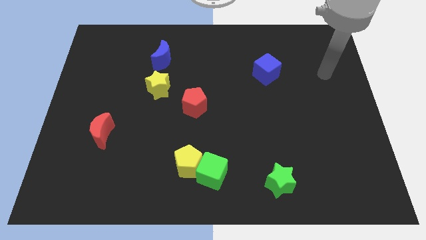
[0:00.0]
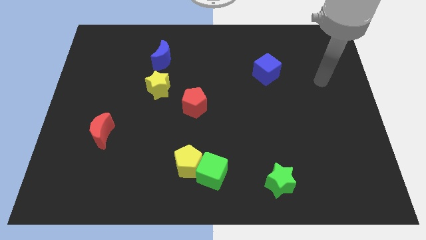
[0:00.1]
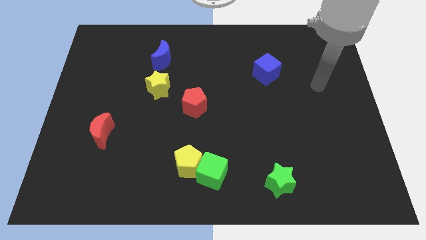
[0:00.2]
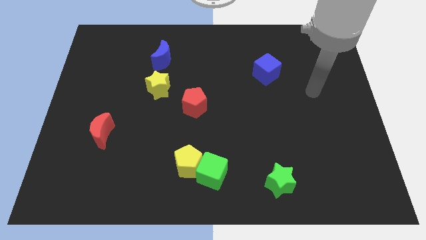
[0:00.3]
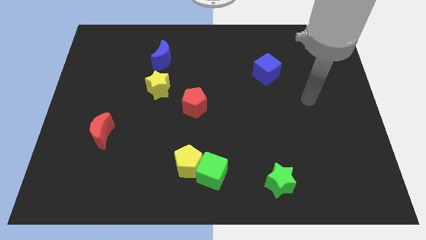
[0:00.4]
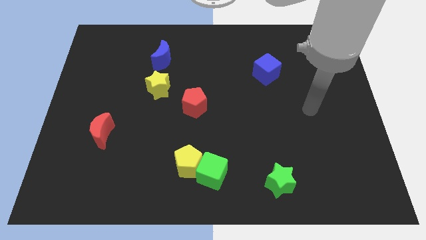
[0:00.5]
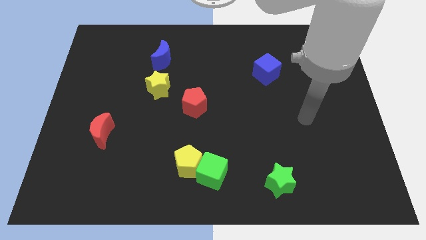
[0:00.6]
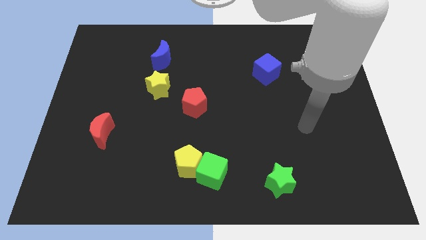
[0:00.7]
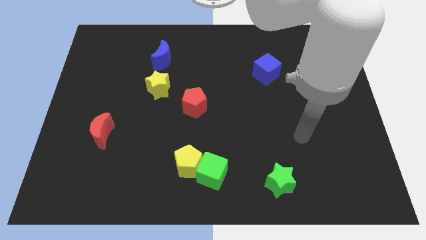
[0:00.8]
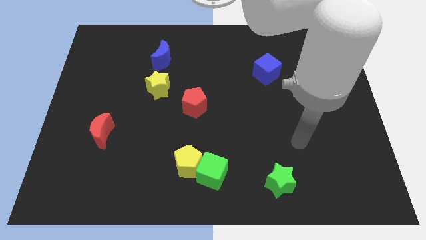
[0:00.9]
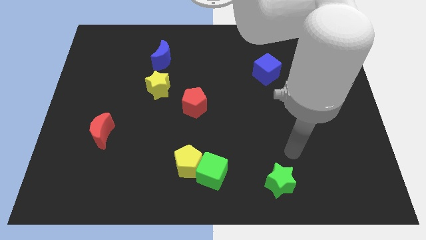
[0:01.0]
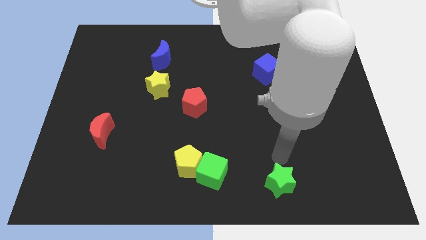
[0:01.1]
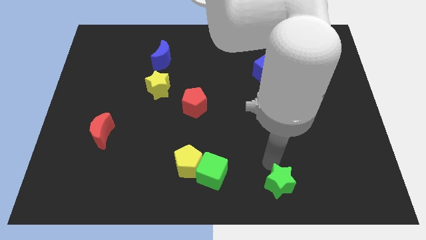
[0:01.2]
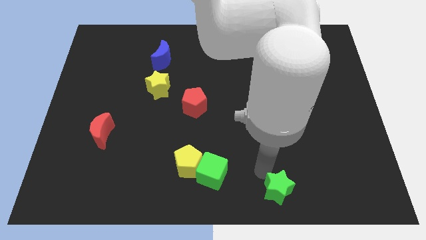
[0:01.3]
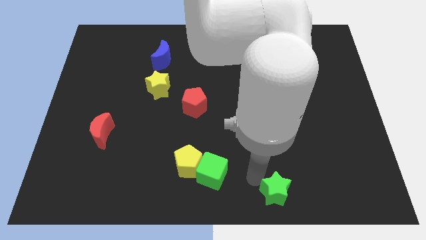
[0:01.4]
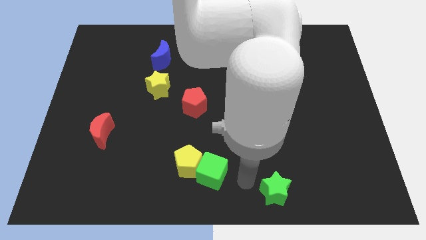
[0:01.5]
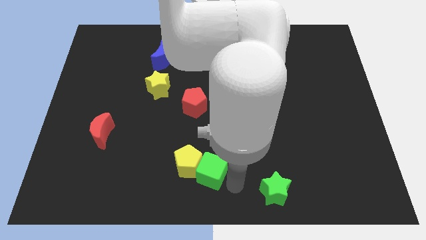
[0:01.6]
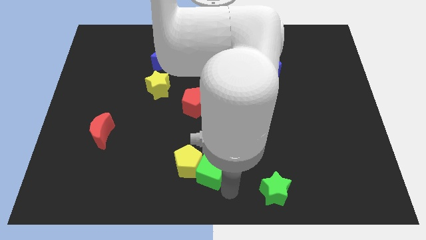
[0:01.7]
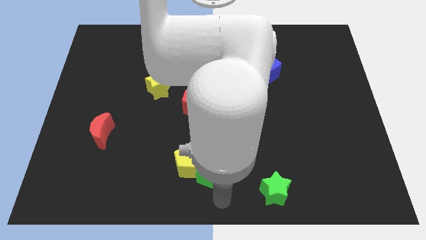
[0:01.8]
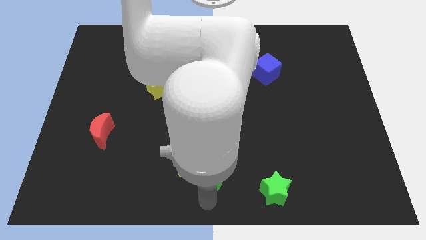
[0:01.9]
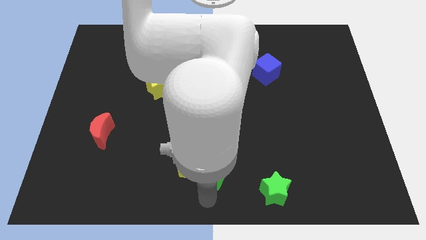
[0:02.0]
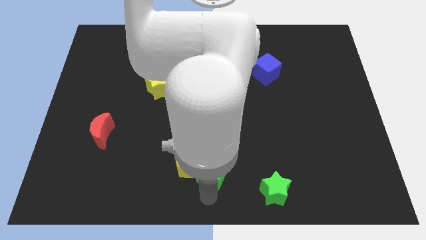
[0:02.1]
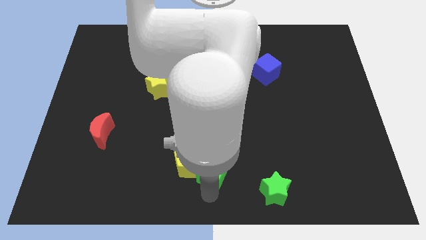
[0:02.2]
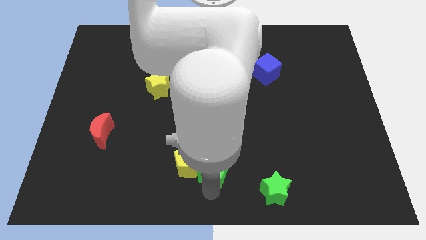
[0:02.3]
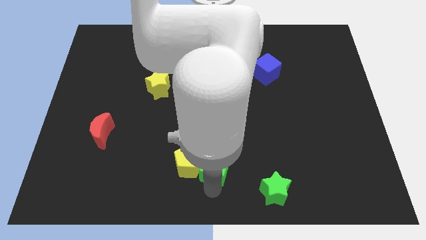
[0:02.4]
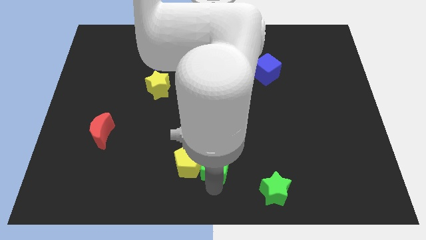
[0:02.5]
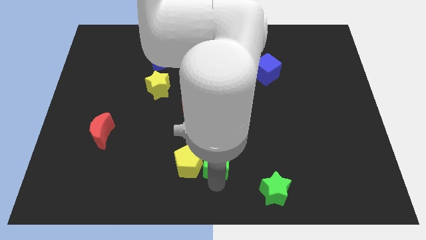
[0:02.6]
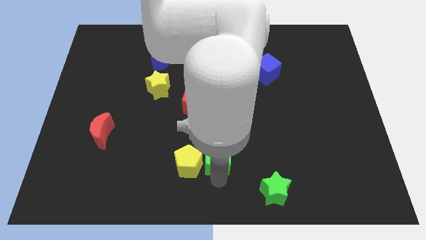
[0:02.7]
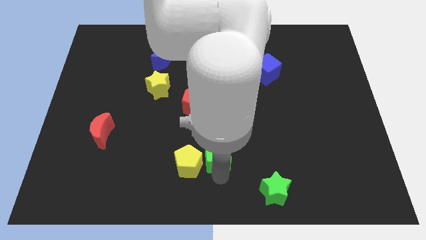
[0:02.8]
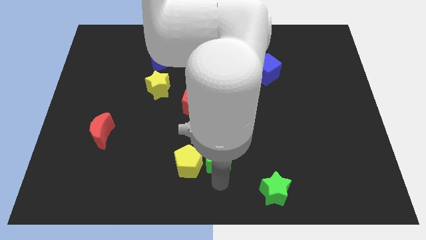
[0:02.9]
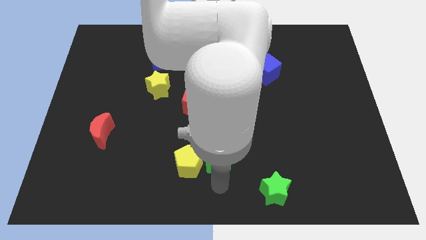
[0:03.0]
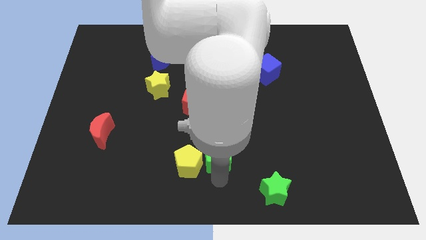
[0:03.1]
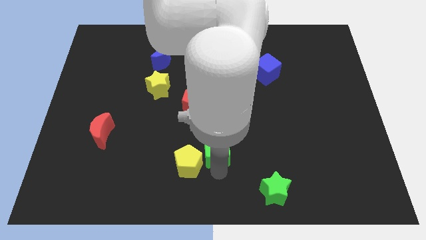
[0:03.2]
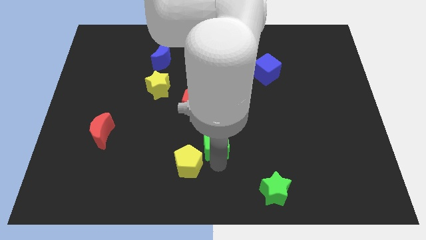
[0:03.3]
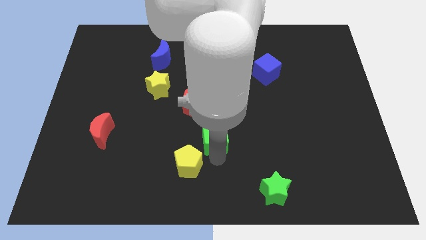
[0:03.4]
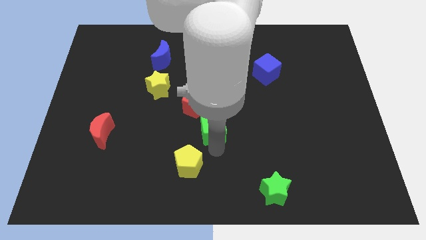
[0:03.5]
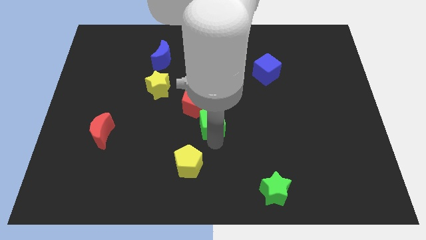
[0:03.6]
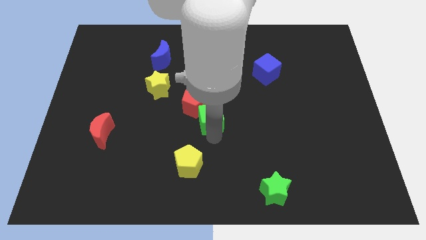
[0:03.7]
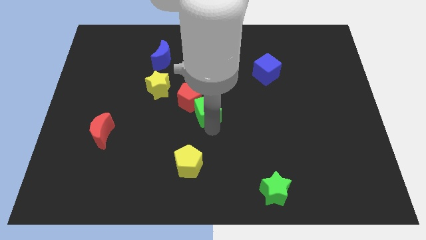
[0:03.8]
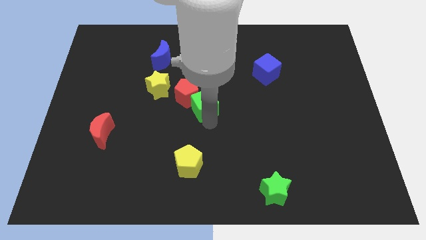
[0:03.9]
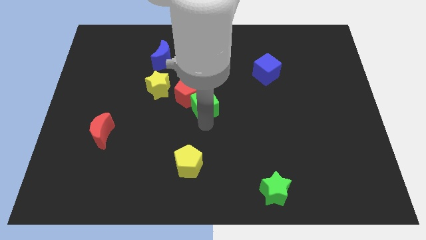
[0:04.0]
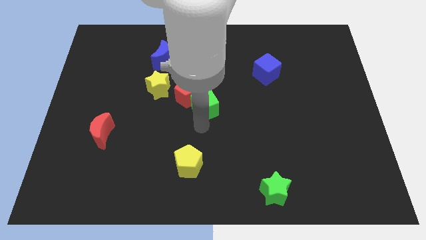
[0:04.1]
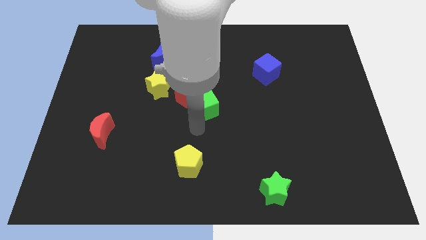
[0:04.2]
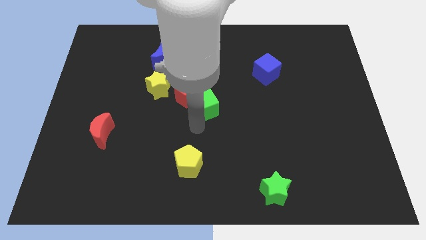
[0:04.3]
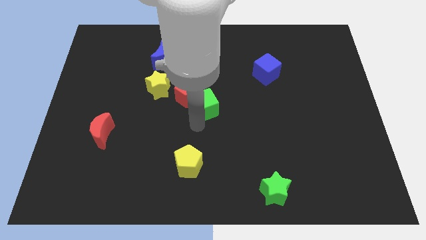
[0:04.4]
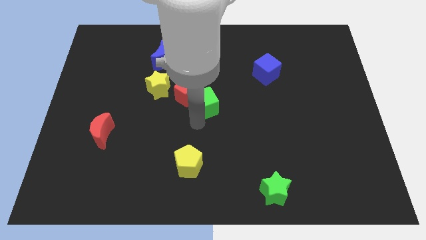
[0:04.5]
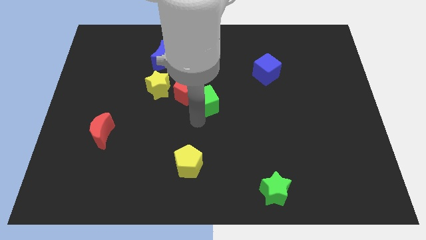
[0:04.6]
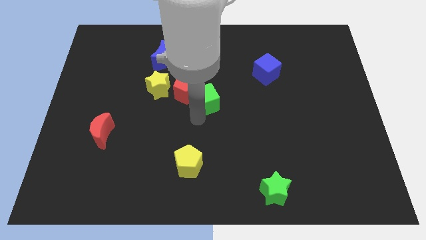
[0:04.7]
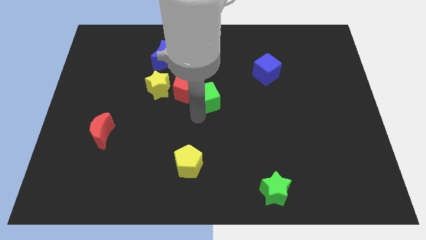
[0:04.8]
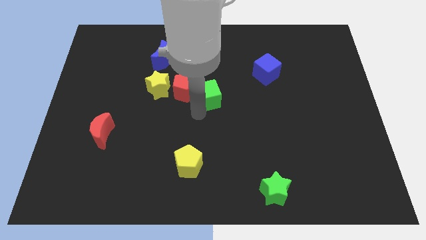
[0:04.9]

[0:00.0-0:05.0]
move the green cube up

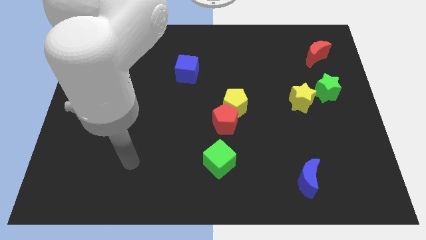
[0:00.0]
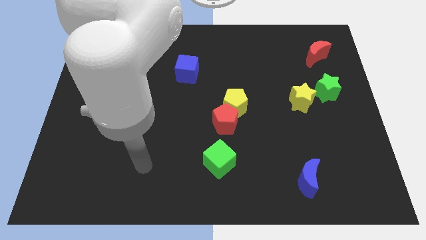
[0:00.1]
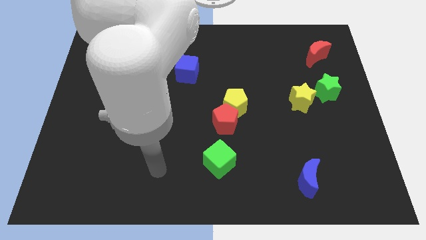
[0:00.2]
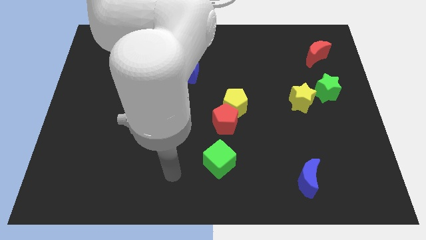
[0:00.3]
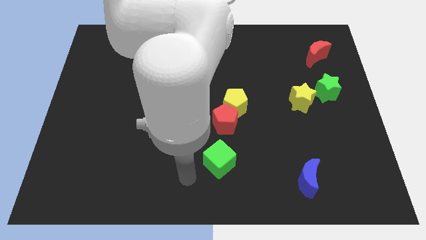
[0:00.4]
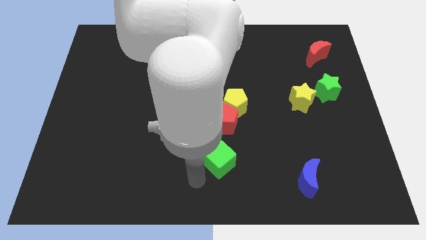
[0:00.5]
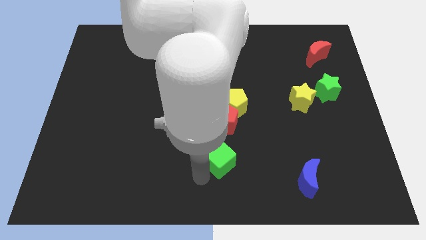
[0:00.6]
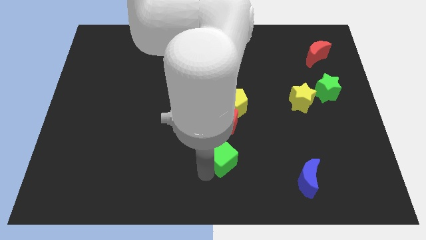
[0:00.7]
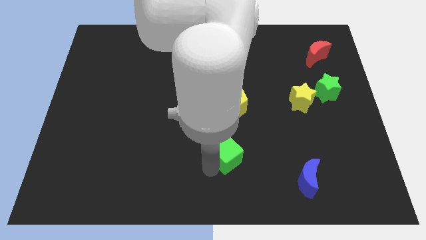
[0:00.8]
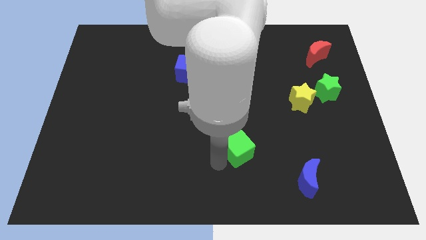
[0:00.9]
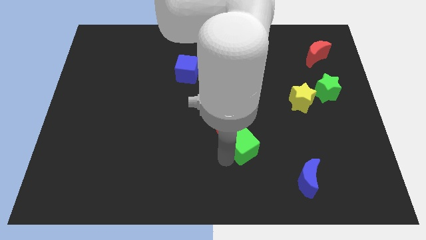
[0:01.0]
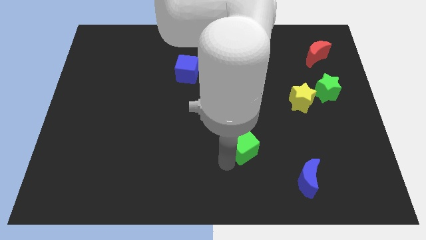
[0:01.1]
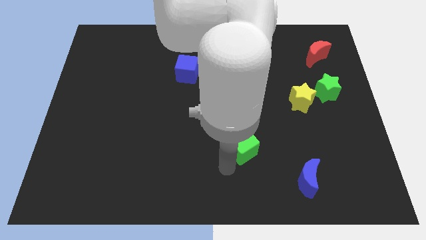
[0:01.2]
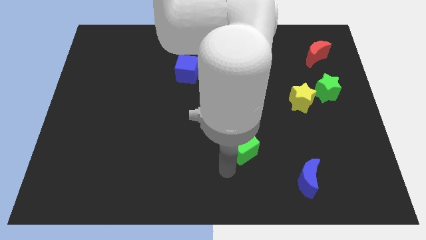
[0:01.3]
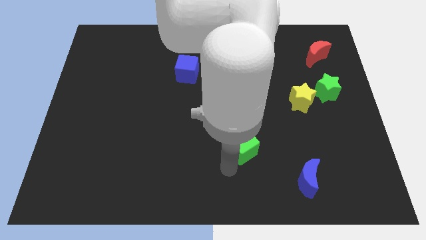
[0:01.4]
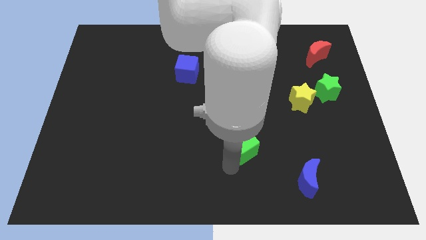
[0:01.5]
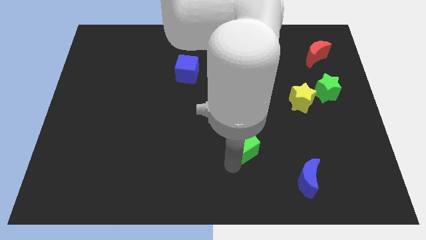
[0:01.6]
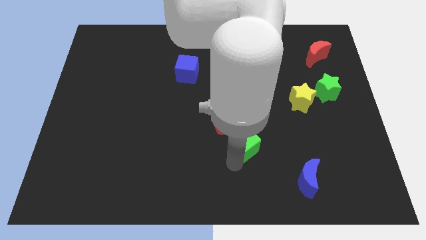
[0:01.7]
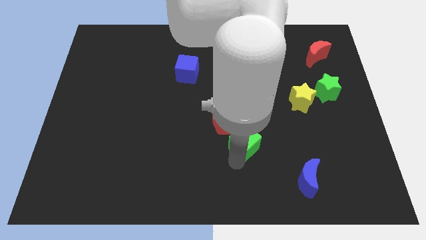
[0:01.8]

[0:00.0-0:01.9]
slide the green cube upwards and to the right a little bit

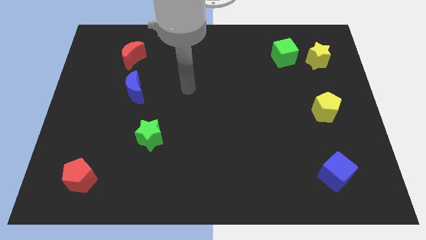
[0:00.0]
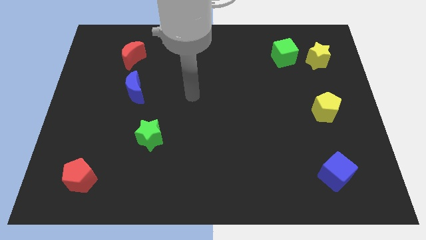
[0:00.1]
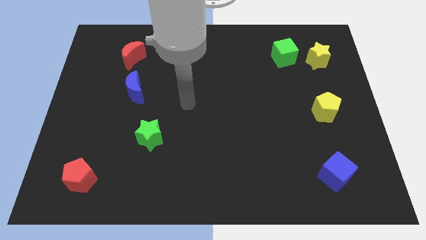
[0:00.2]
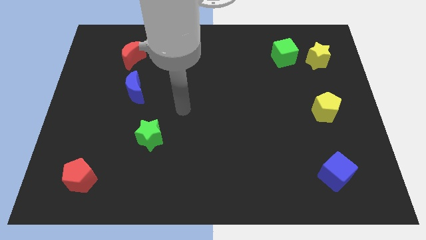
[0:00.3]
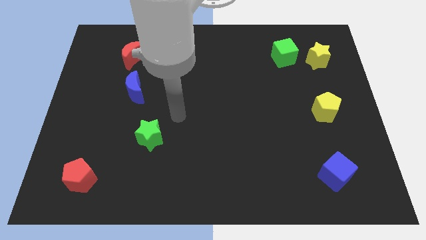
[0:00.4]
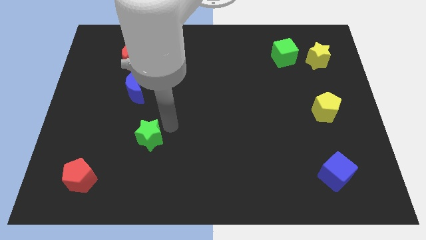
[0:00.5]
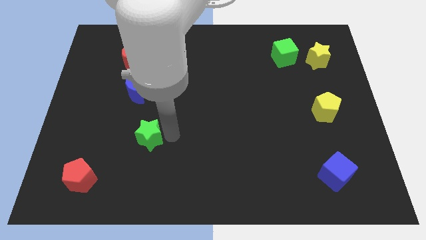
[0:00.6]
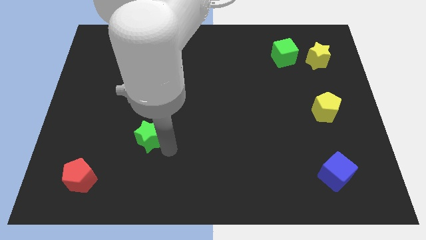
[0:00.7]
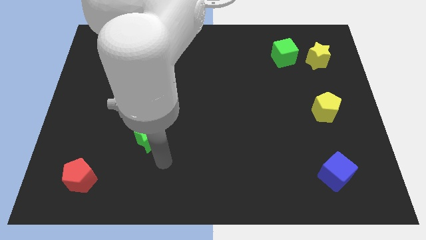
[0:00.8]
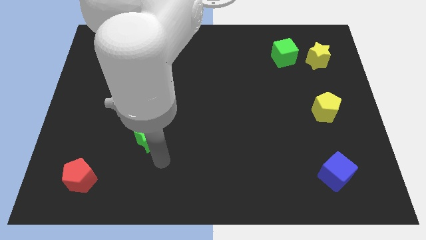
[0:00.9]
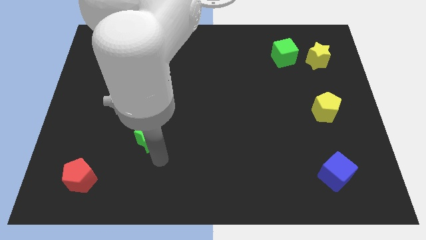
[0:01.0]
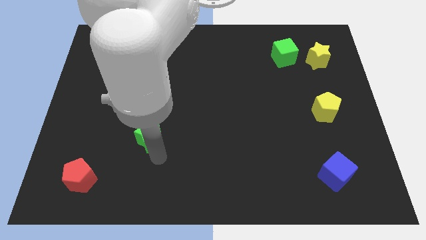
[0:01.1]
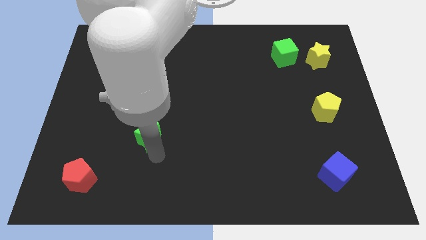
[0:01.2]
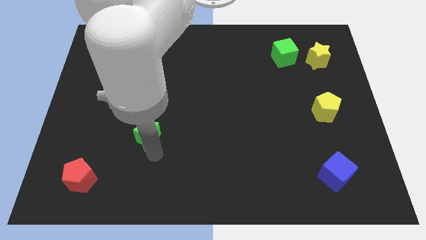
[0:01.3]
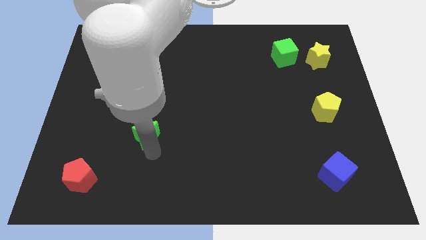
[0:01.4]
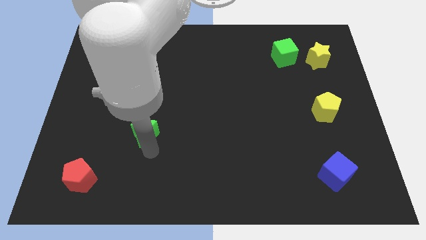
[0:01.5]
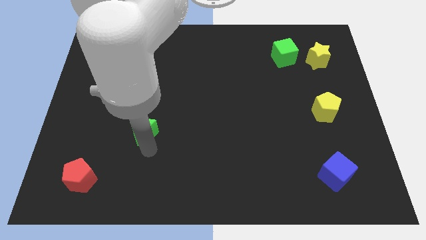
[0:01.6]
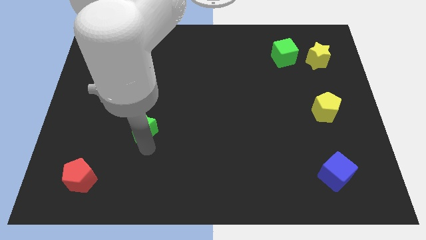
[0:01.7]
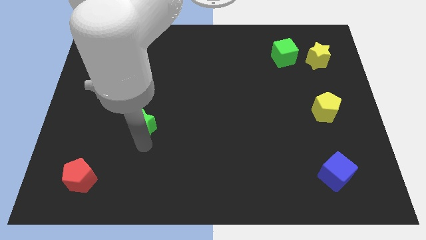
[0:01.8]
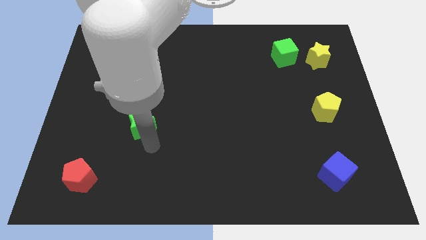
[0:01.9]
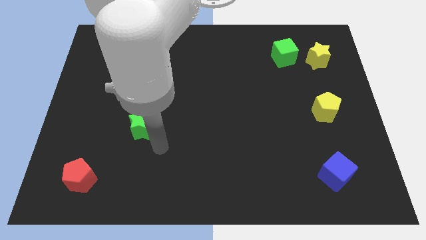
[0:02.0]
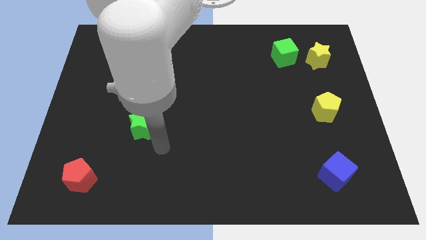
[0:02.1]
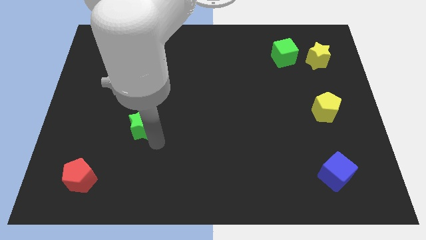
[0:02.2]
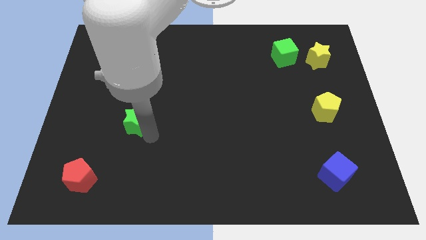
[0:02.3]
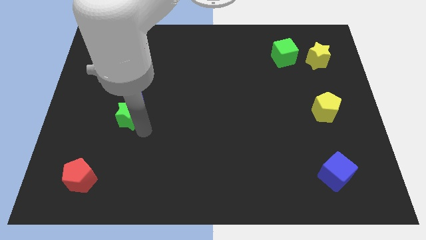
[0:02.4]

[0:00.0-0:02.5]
push the green star up and left a little bit
